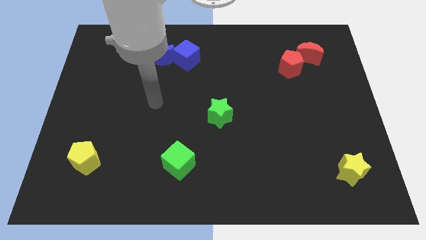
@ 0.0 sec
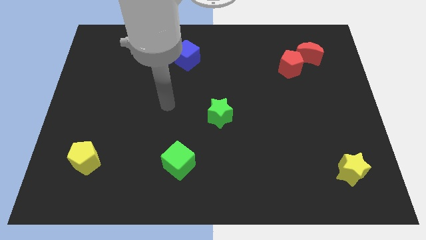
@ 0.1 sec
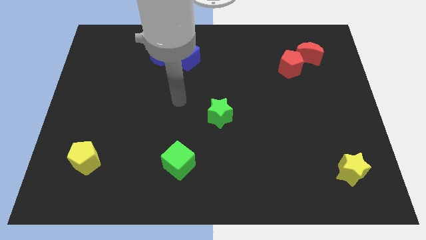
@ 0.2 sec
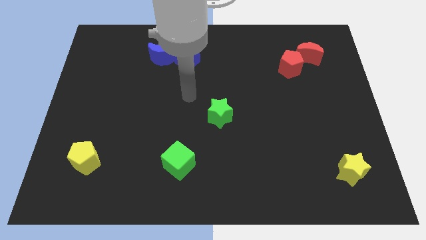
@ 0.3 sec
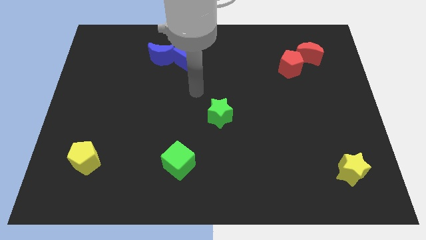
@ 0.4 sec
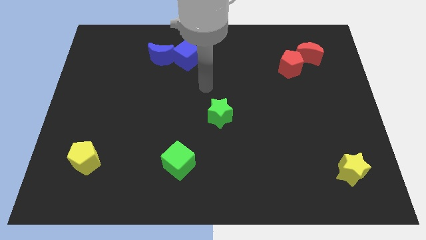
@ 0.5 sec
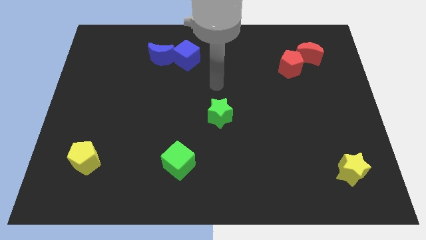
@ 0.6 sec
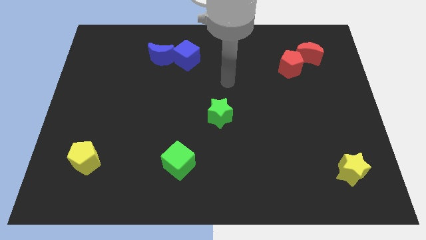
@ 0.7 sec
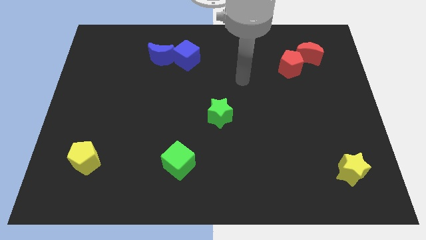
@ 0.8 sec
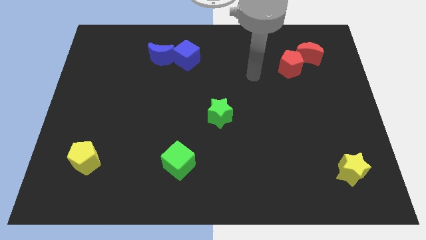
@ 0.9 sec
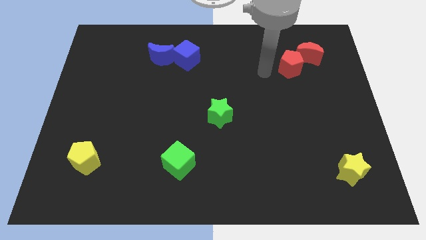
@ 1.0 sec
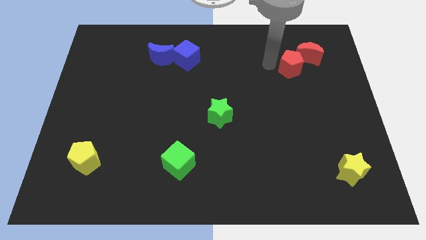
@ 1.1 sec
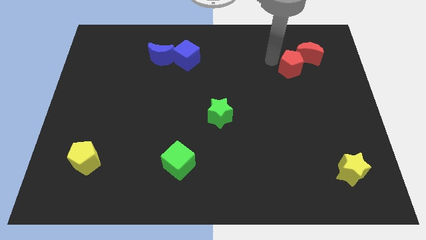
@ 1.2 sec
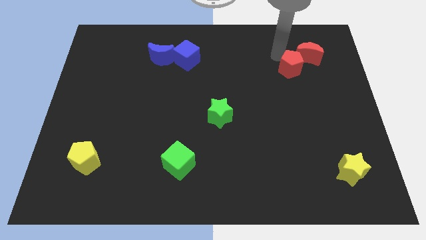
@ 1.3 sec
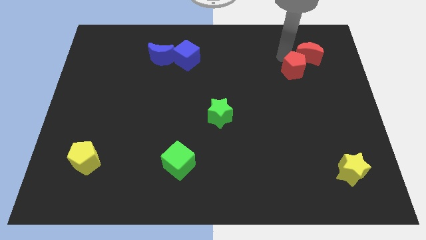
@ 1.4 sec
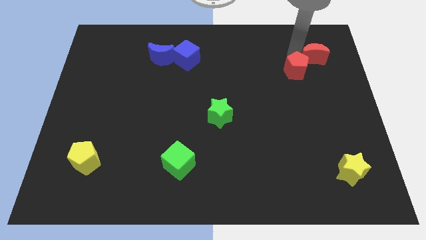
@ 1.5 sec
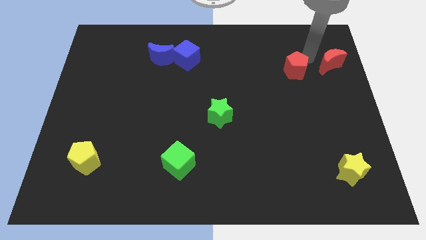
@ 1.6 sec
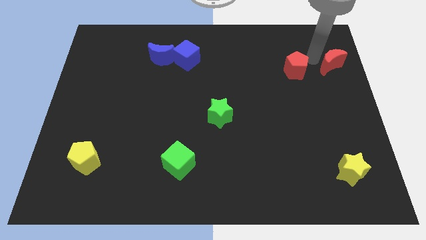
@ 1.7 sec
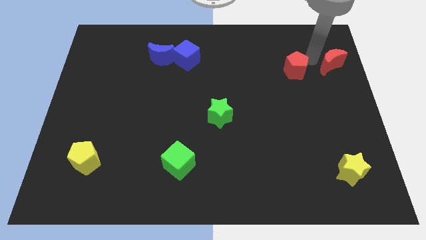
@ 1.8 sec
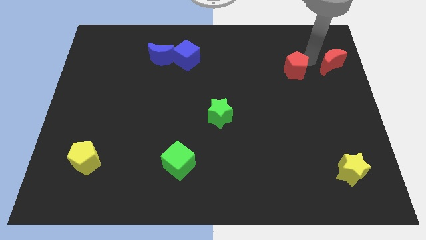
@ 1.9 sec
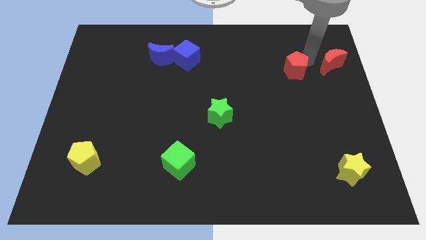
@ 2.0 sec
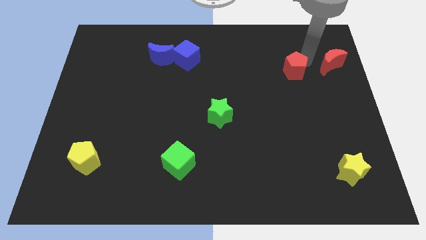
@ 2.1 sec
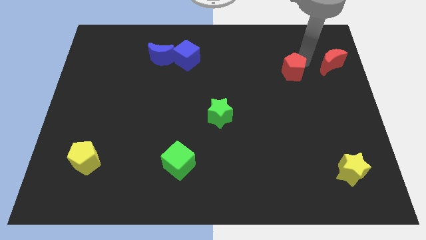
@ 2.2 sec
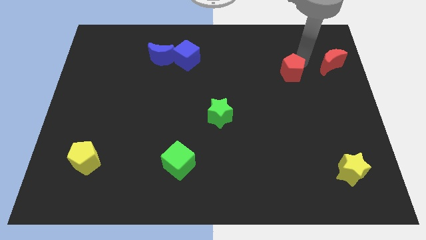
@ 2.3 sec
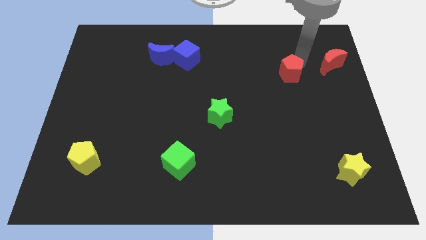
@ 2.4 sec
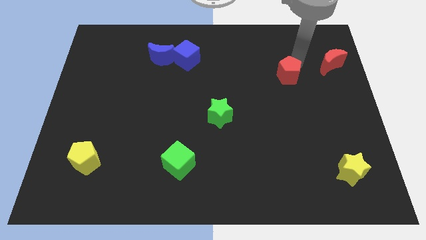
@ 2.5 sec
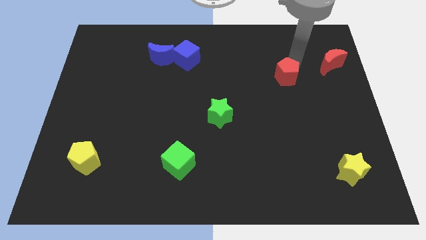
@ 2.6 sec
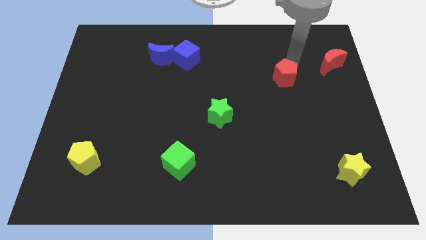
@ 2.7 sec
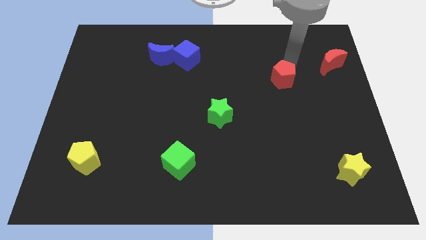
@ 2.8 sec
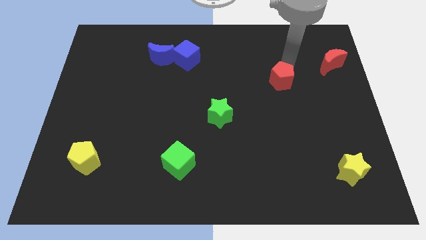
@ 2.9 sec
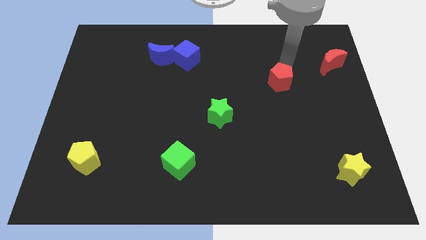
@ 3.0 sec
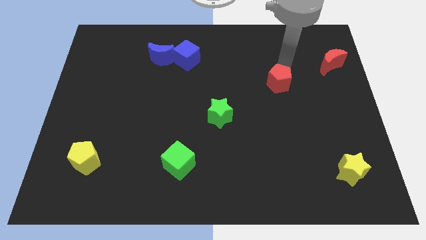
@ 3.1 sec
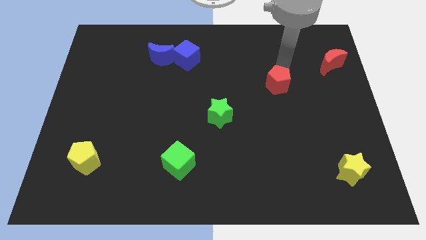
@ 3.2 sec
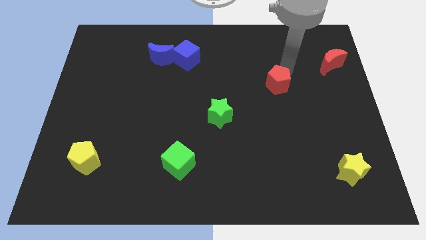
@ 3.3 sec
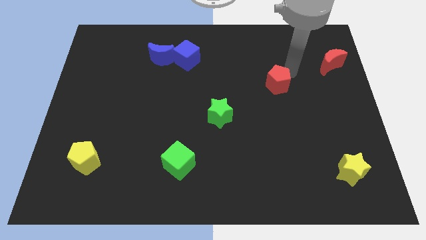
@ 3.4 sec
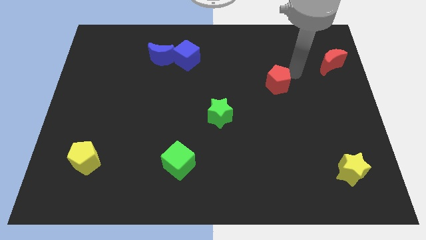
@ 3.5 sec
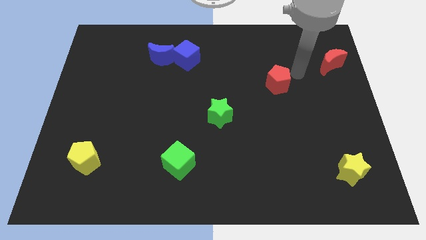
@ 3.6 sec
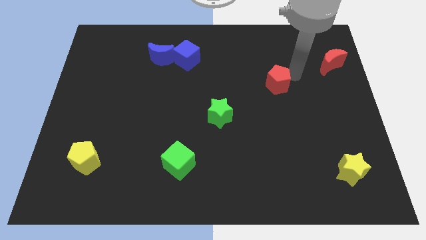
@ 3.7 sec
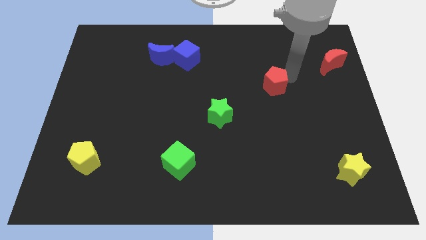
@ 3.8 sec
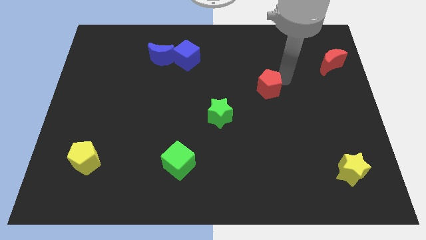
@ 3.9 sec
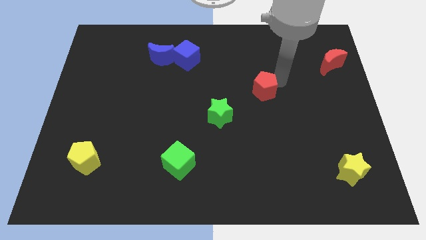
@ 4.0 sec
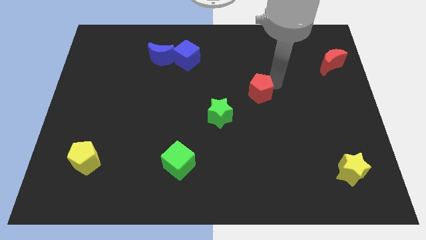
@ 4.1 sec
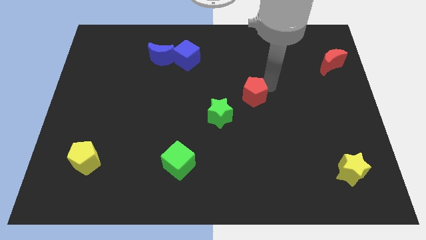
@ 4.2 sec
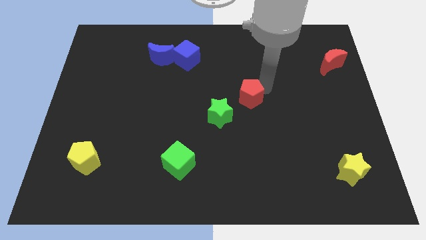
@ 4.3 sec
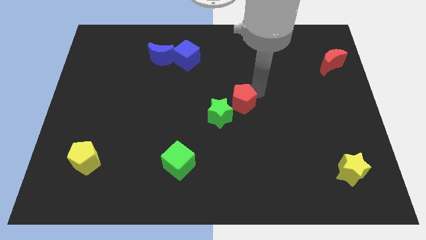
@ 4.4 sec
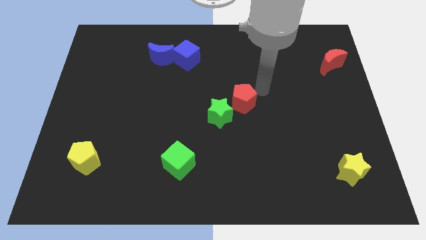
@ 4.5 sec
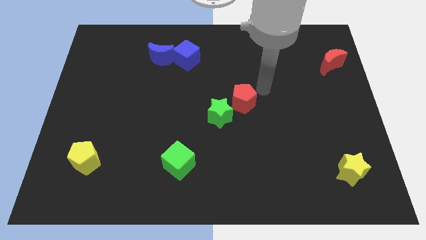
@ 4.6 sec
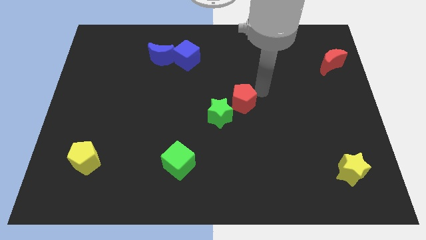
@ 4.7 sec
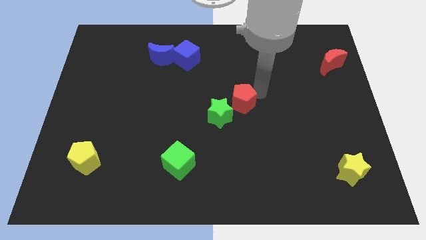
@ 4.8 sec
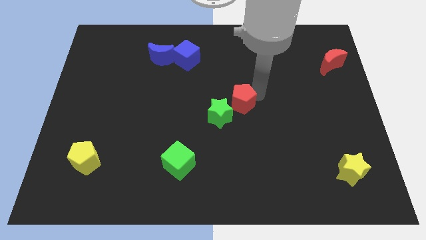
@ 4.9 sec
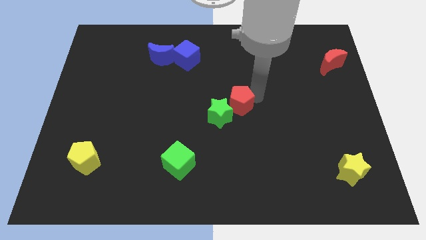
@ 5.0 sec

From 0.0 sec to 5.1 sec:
move the red pentagon towards the green star
